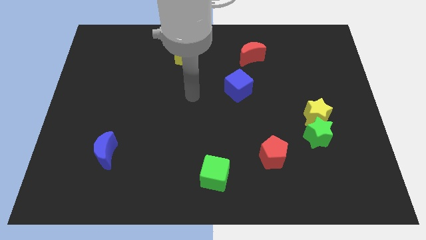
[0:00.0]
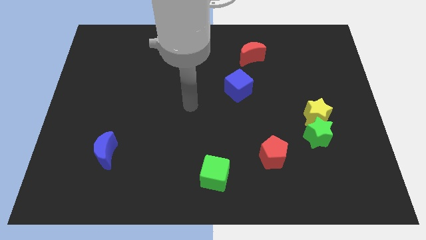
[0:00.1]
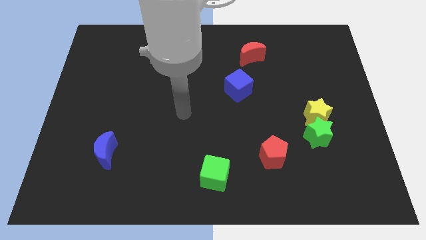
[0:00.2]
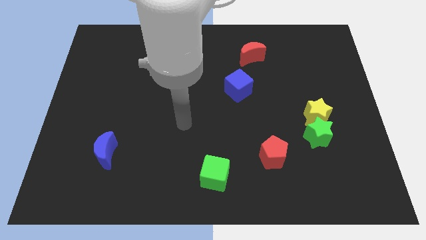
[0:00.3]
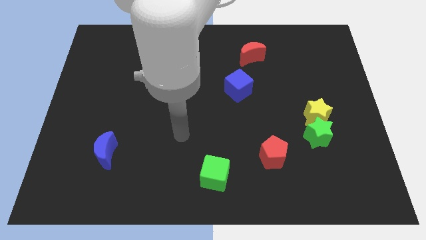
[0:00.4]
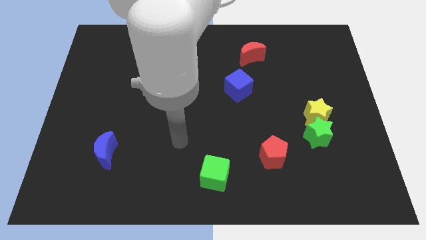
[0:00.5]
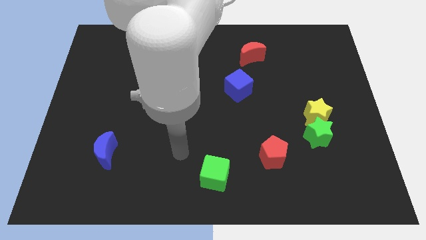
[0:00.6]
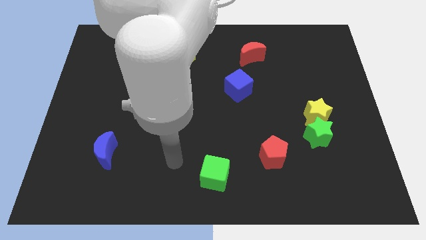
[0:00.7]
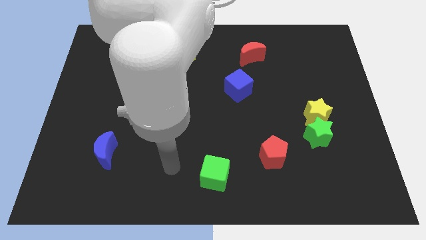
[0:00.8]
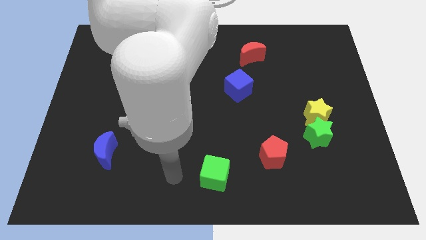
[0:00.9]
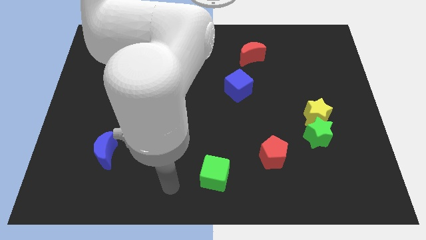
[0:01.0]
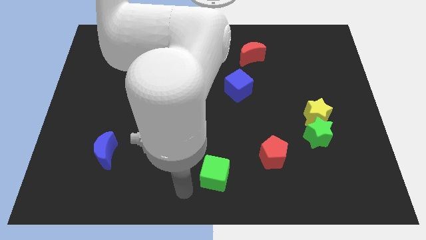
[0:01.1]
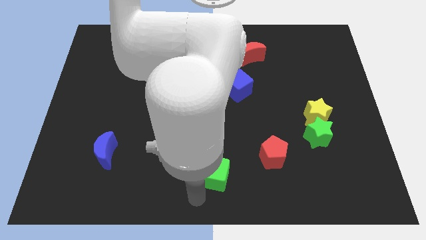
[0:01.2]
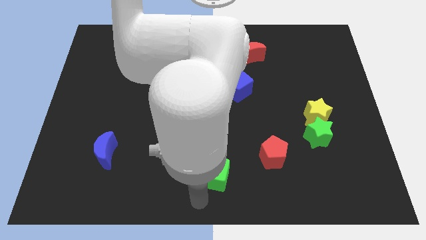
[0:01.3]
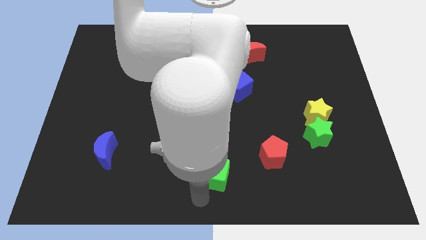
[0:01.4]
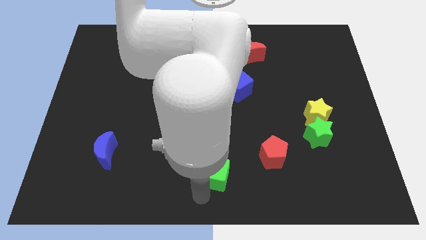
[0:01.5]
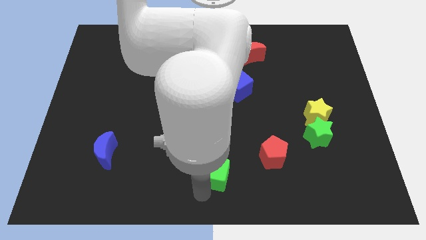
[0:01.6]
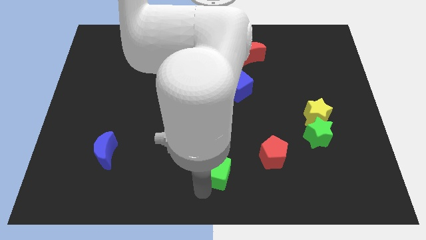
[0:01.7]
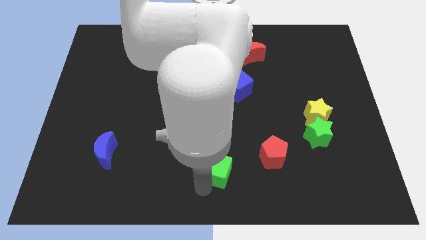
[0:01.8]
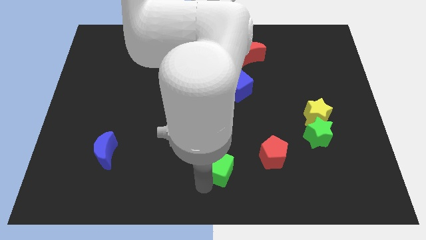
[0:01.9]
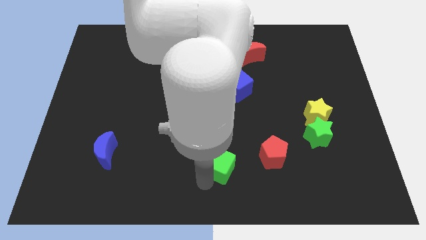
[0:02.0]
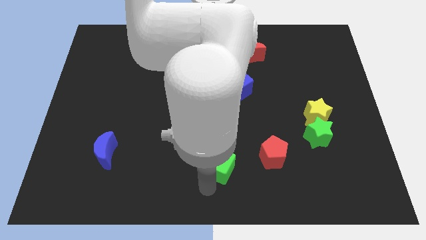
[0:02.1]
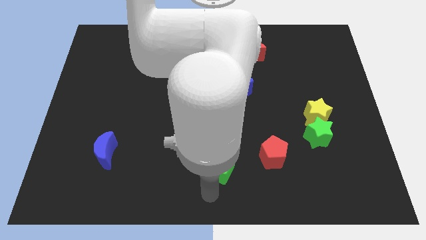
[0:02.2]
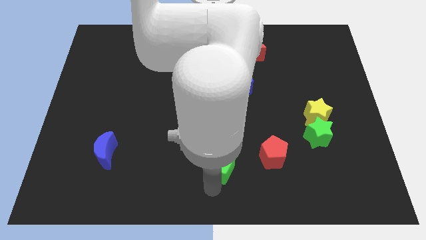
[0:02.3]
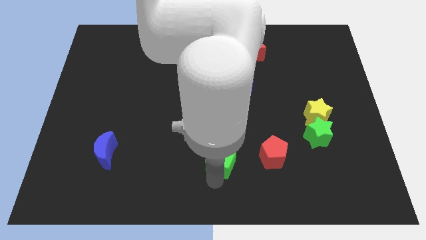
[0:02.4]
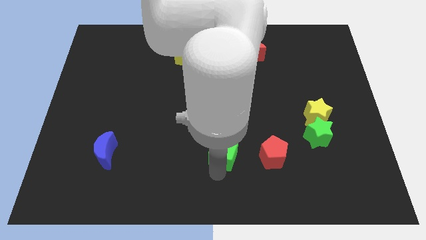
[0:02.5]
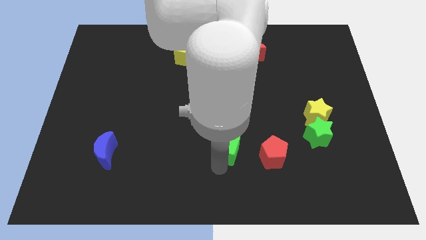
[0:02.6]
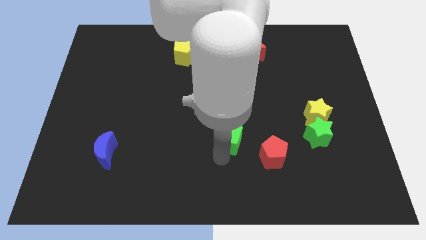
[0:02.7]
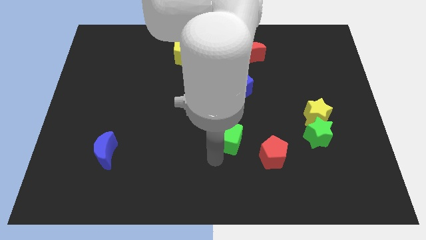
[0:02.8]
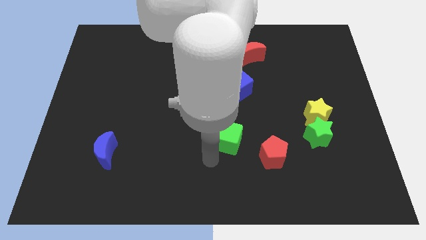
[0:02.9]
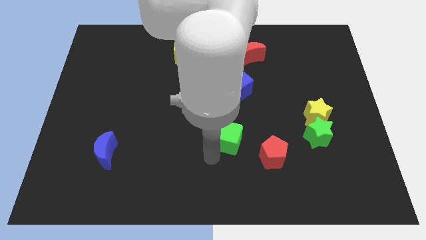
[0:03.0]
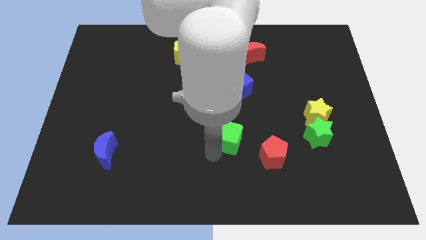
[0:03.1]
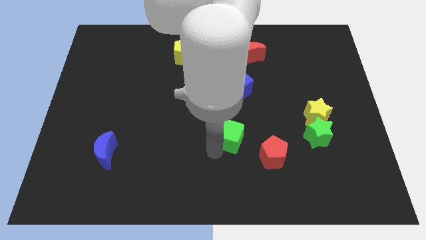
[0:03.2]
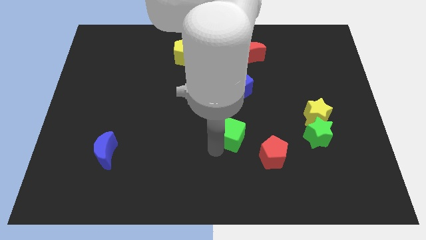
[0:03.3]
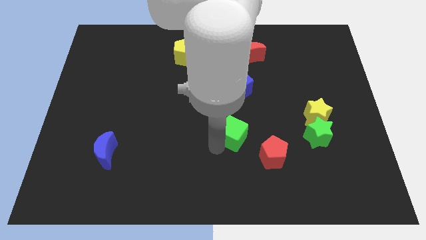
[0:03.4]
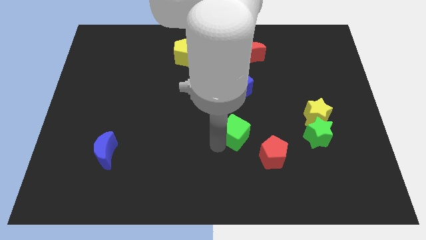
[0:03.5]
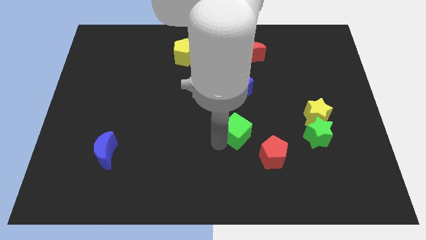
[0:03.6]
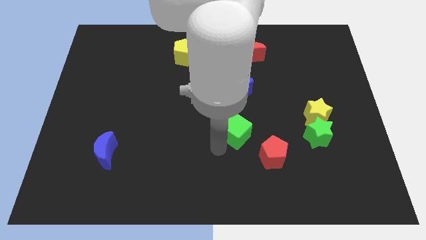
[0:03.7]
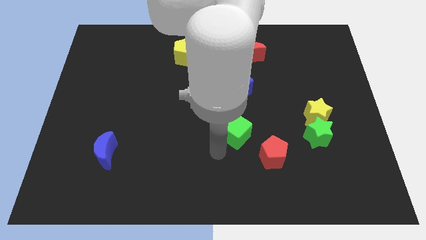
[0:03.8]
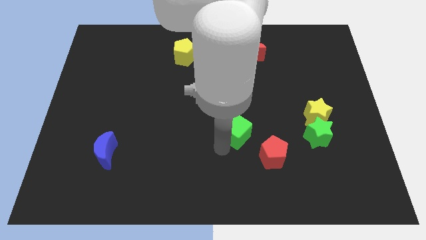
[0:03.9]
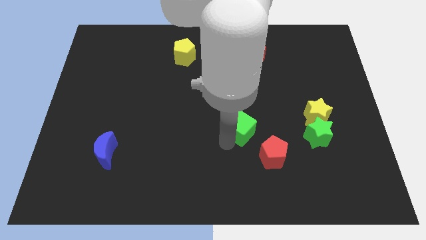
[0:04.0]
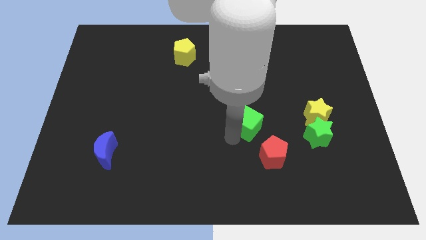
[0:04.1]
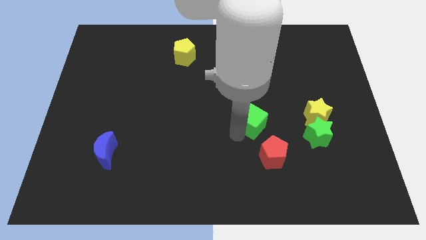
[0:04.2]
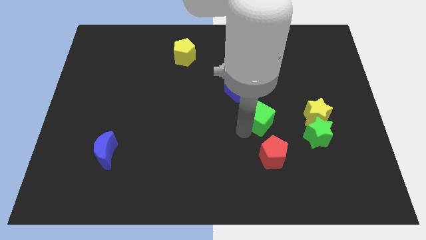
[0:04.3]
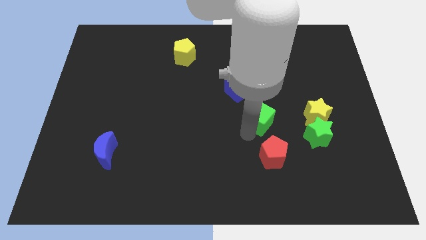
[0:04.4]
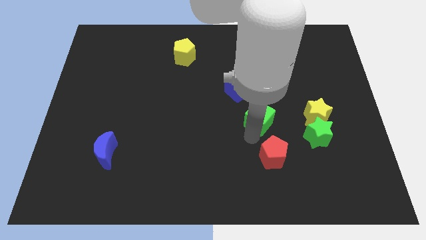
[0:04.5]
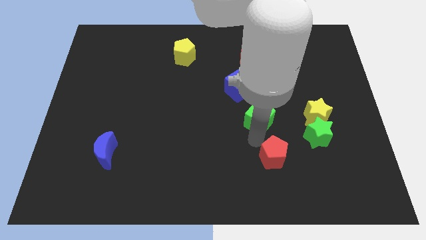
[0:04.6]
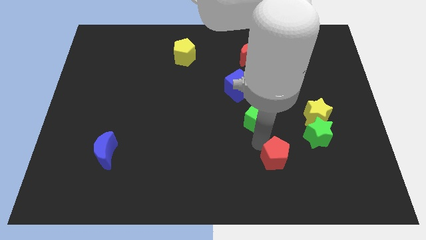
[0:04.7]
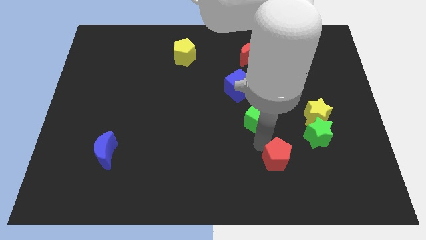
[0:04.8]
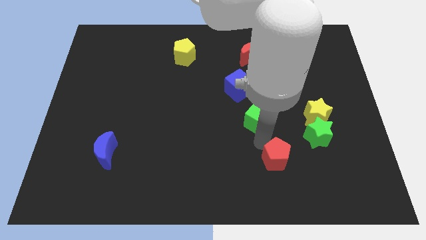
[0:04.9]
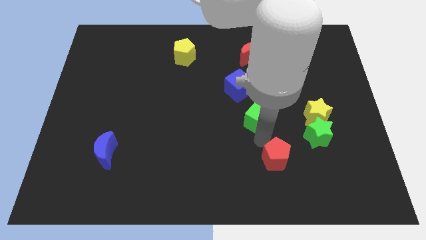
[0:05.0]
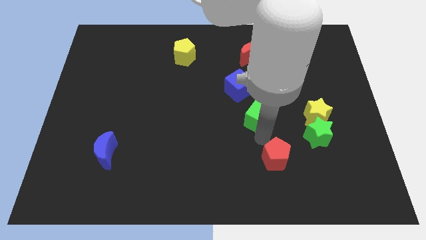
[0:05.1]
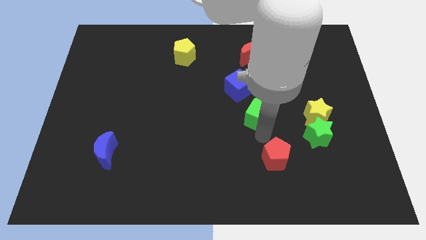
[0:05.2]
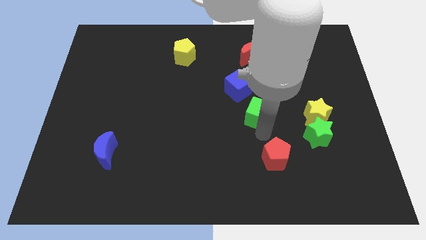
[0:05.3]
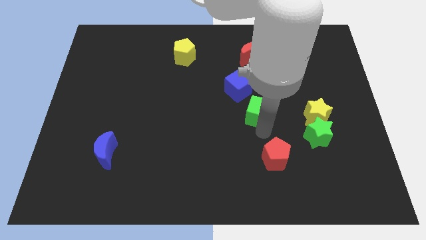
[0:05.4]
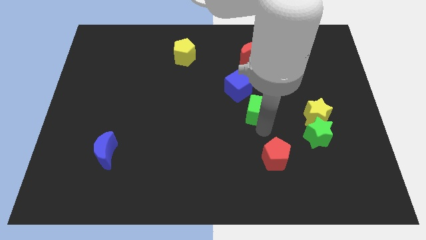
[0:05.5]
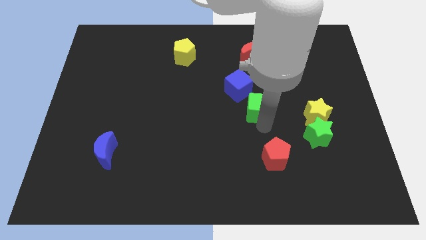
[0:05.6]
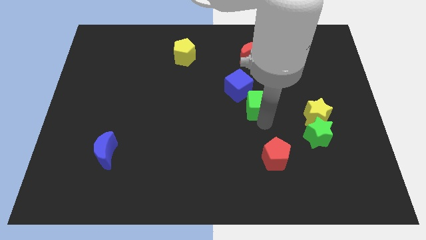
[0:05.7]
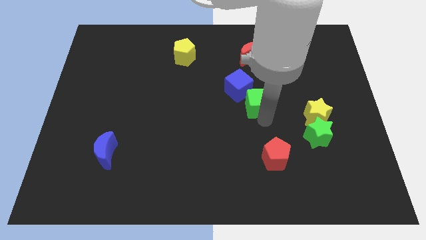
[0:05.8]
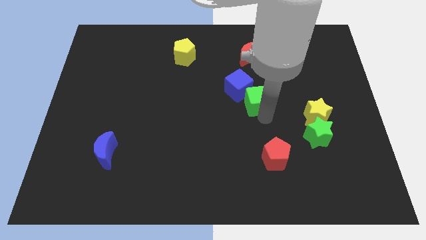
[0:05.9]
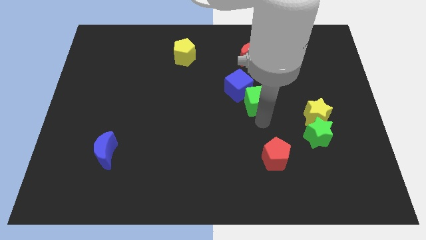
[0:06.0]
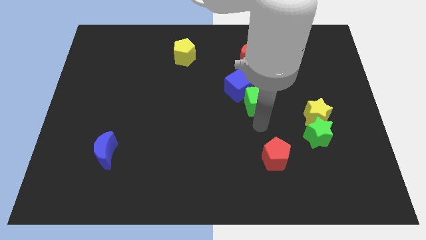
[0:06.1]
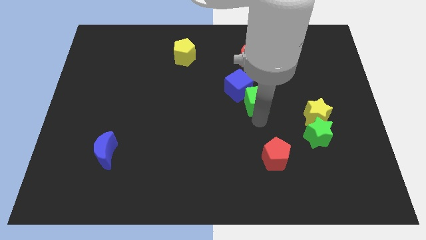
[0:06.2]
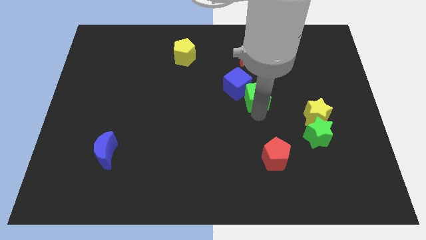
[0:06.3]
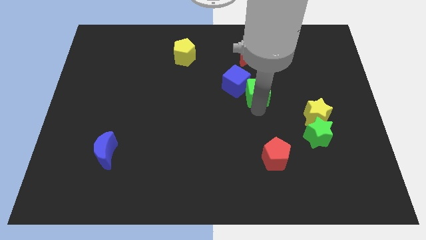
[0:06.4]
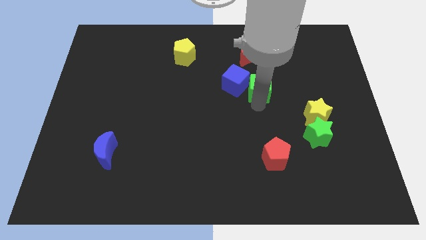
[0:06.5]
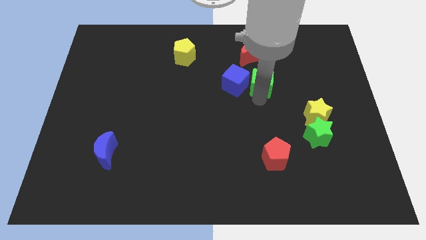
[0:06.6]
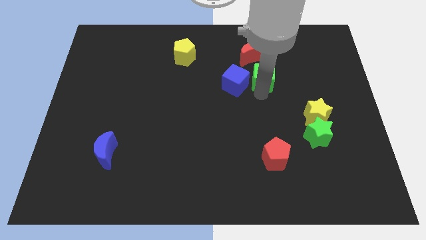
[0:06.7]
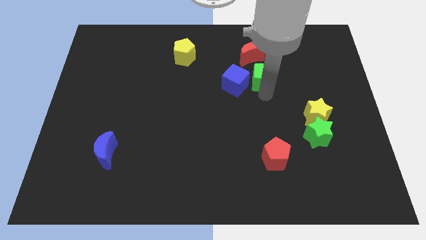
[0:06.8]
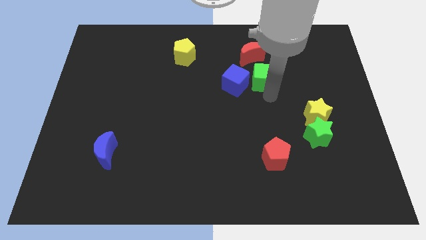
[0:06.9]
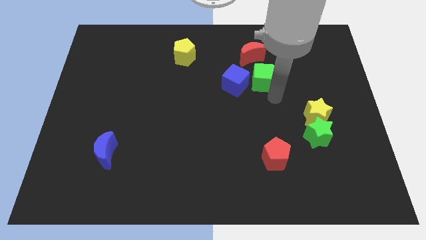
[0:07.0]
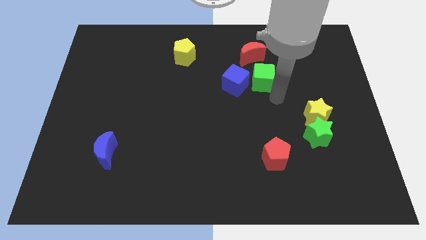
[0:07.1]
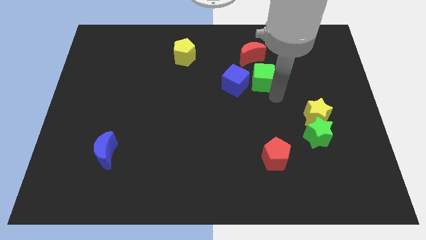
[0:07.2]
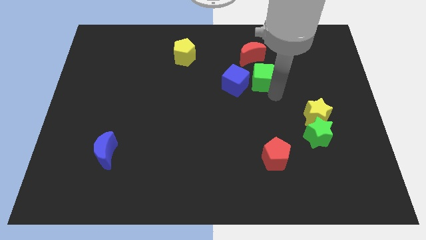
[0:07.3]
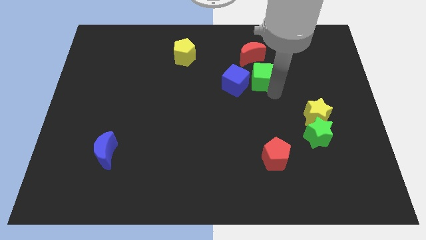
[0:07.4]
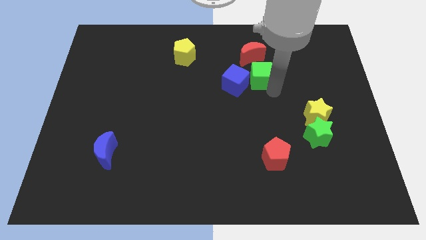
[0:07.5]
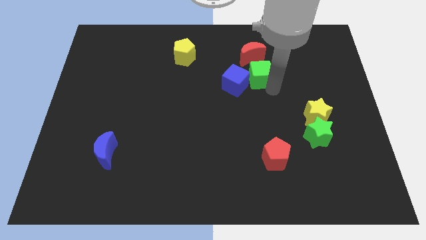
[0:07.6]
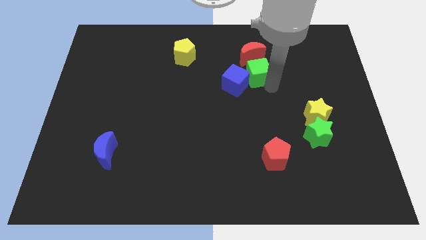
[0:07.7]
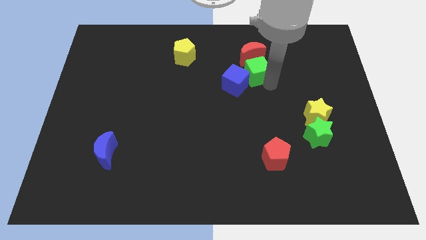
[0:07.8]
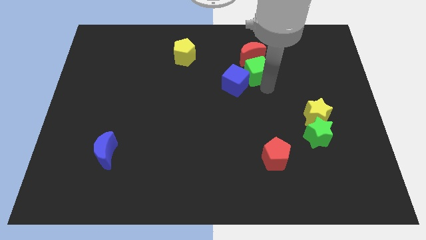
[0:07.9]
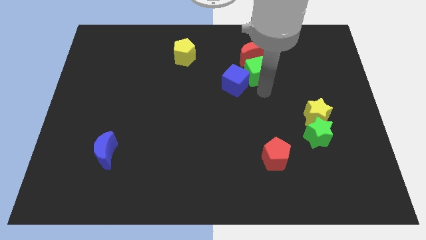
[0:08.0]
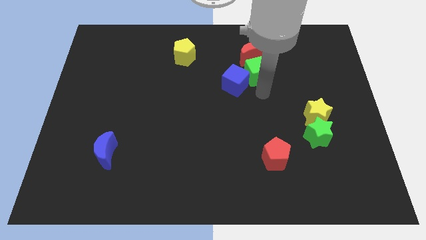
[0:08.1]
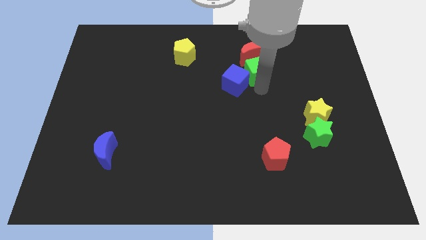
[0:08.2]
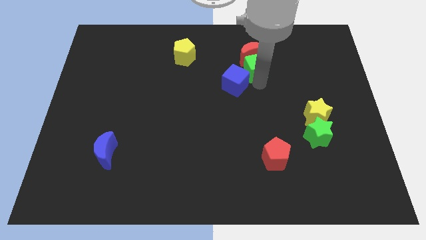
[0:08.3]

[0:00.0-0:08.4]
move the green cube close to the red moon
